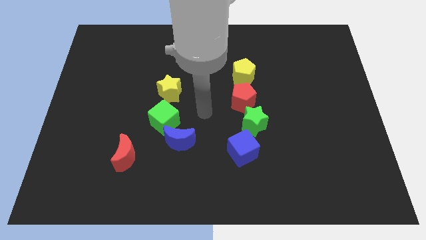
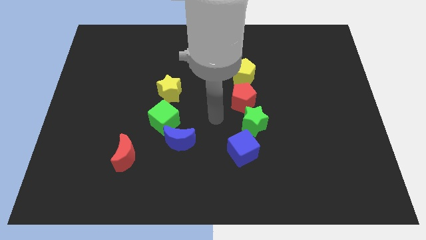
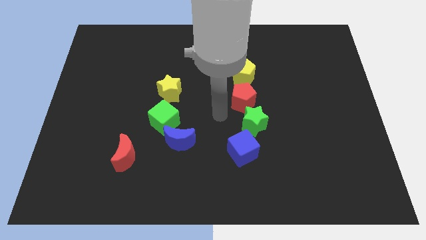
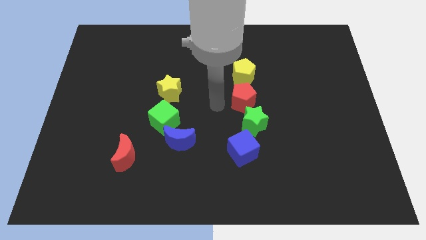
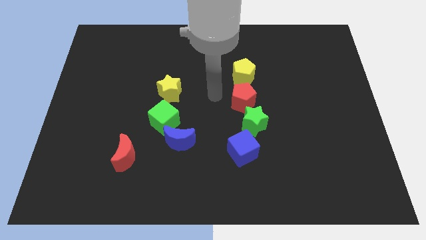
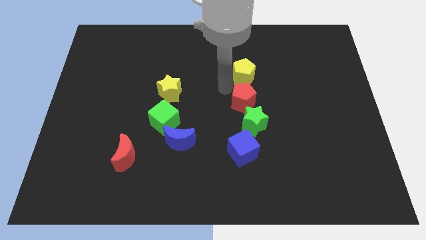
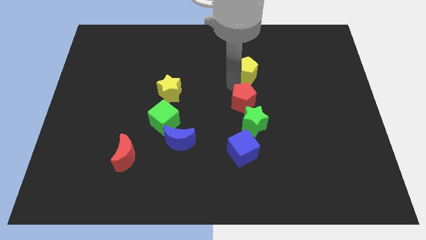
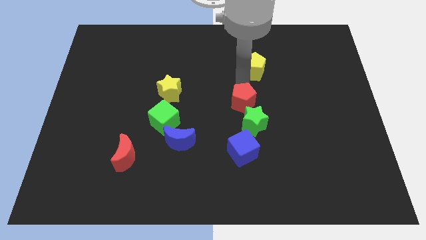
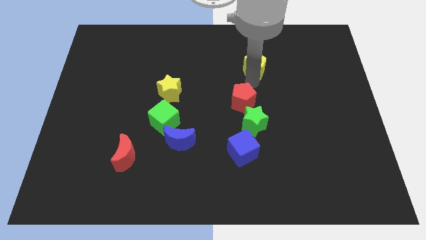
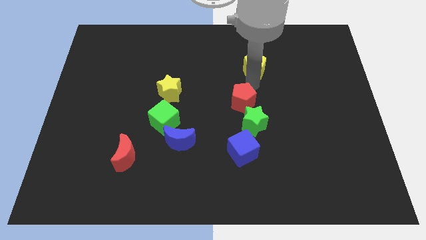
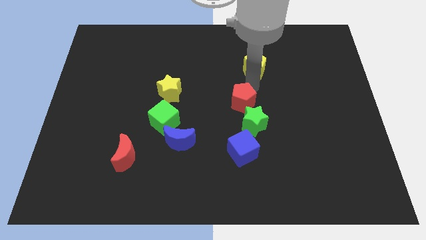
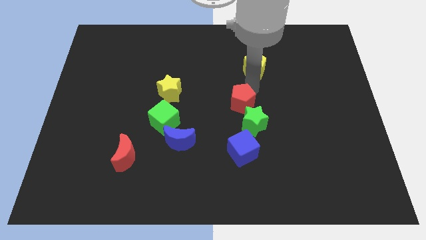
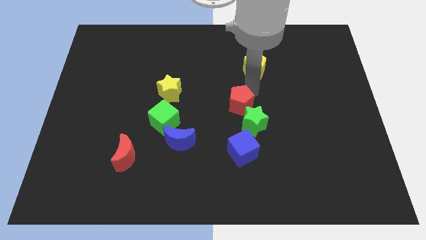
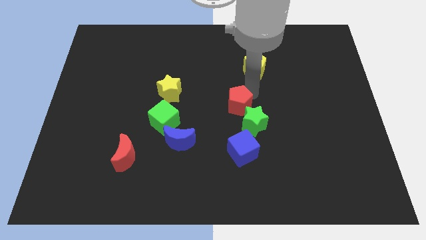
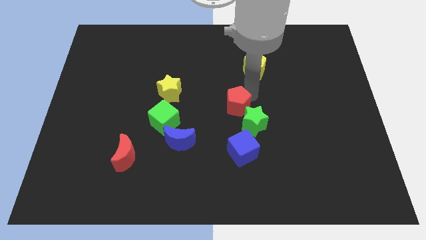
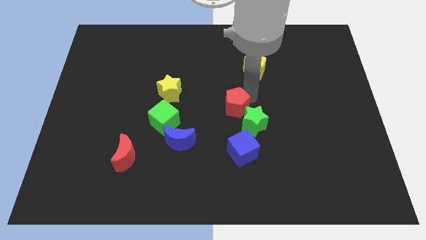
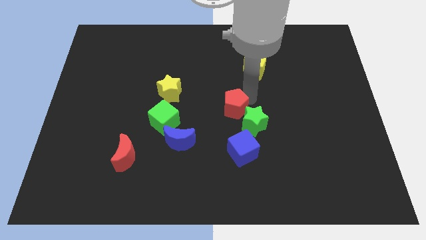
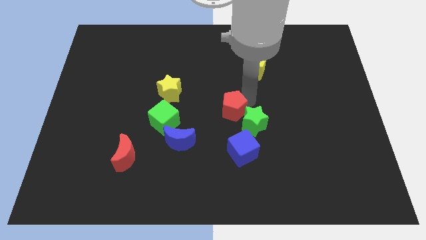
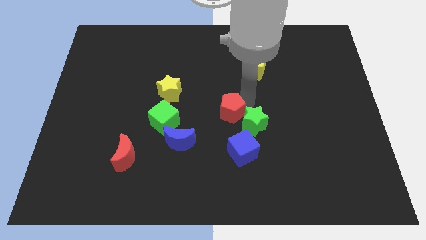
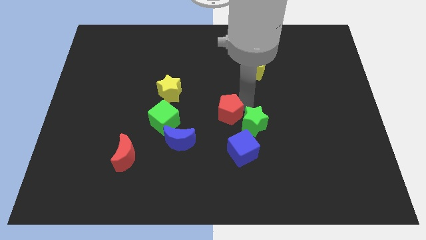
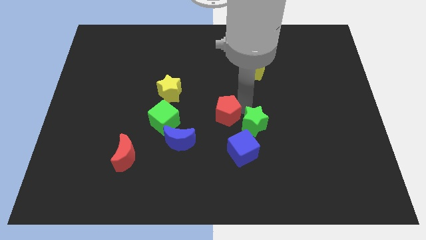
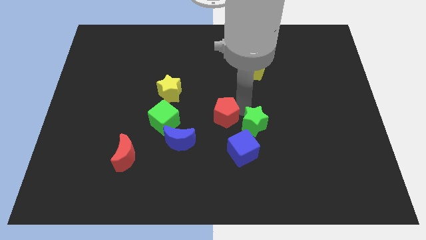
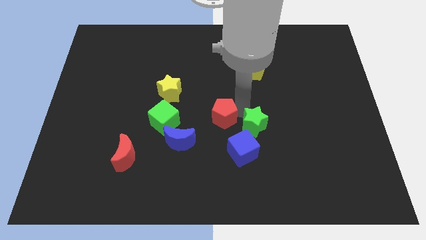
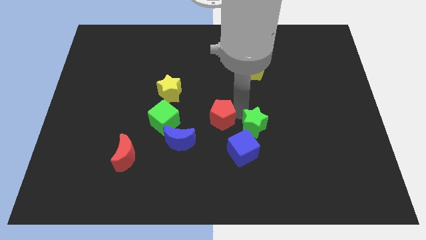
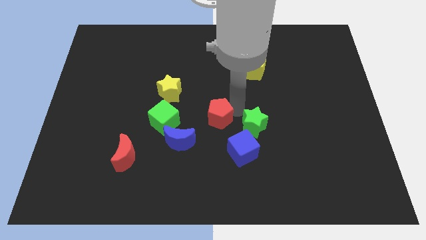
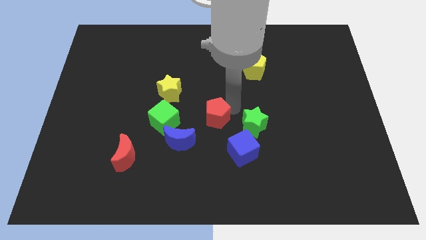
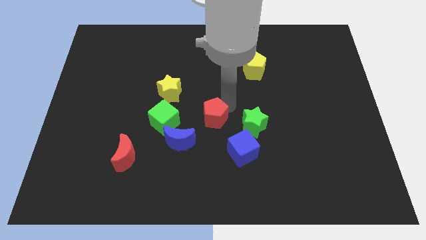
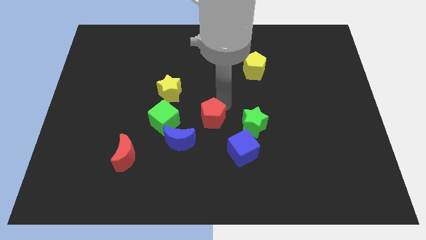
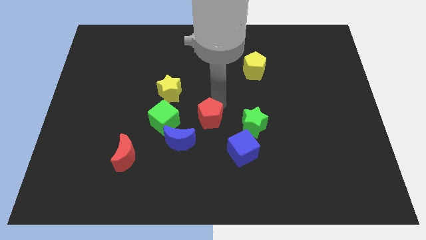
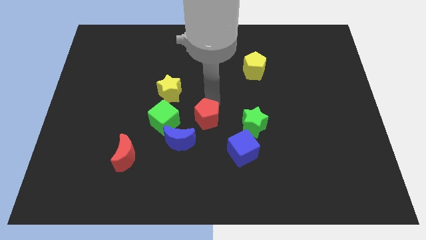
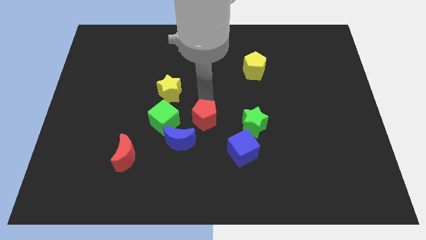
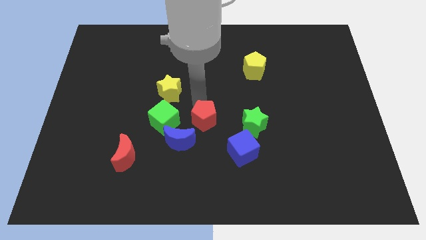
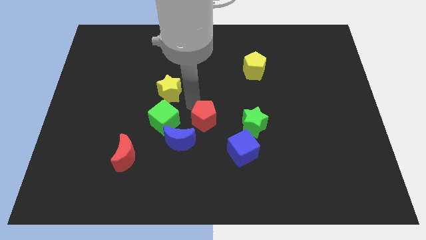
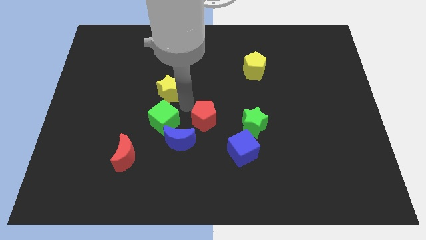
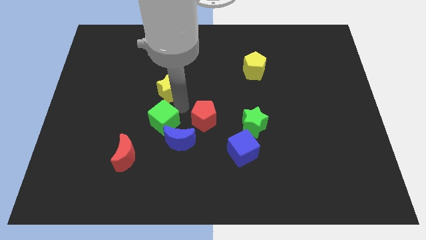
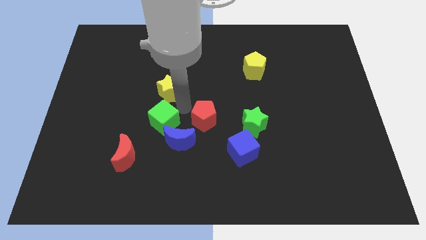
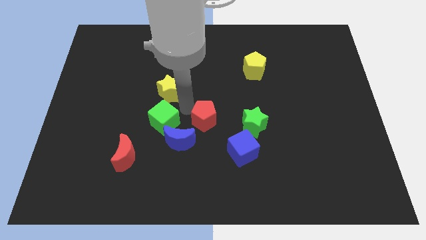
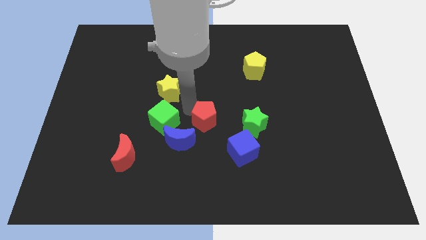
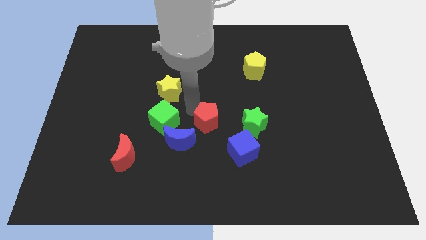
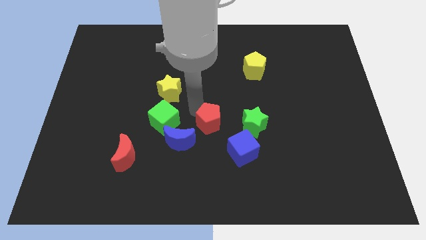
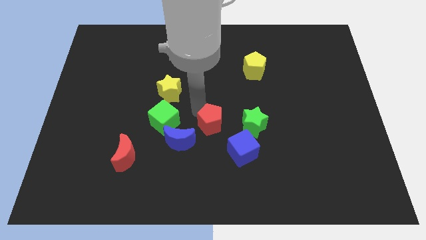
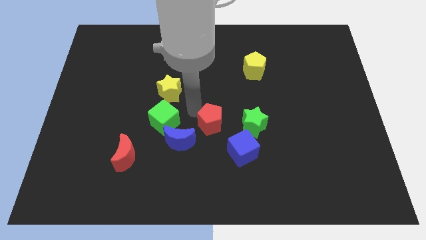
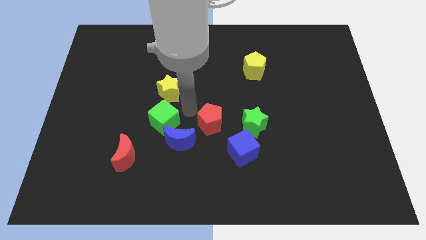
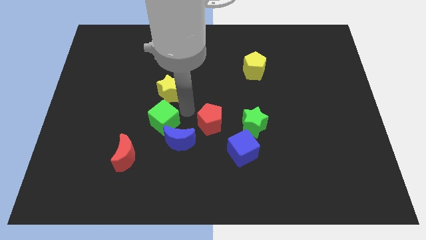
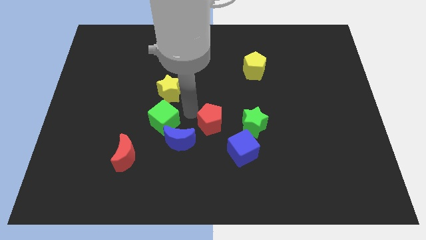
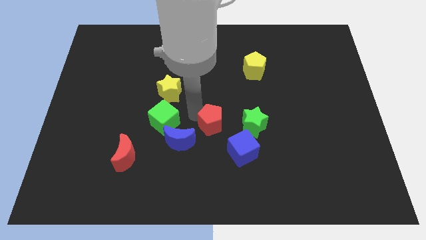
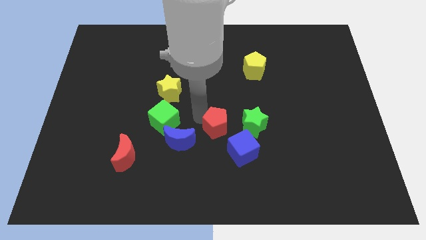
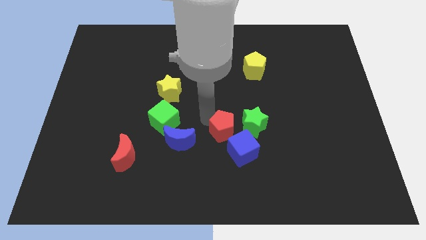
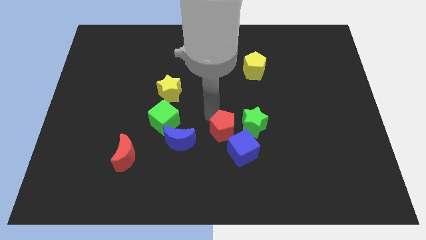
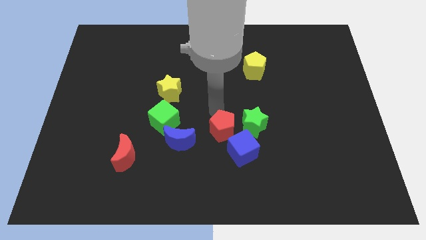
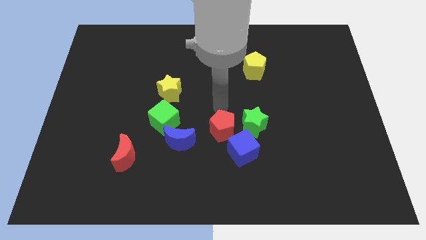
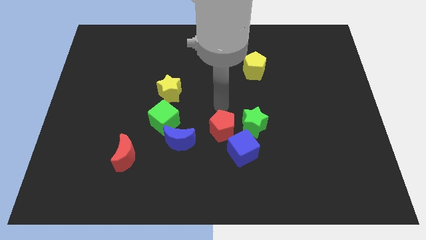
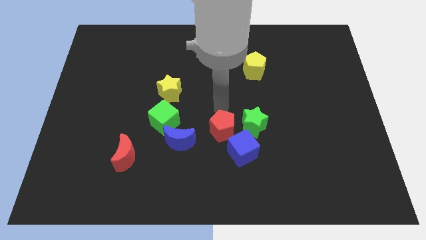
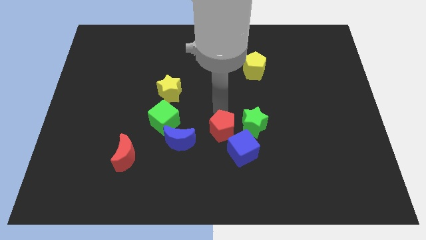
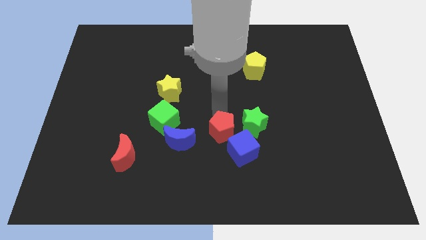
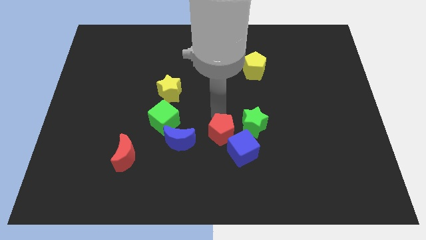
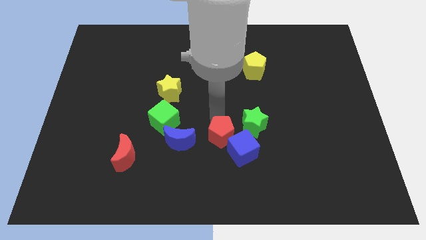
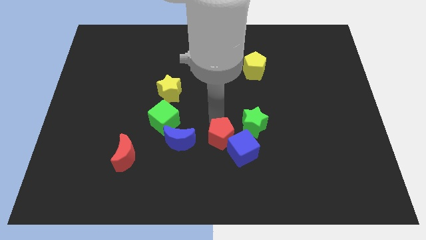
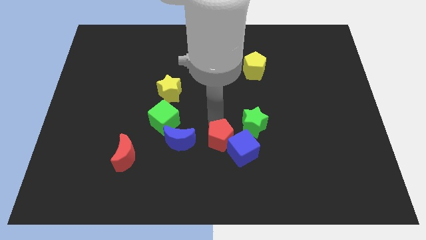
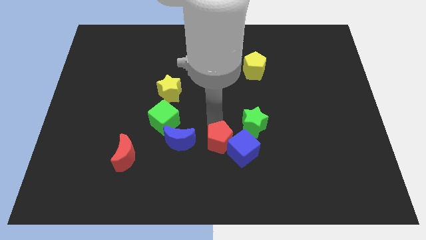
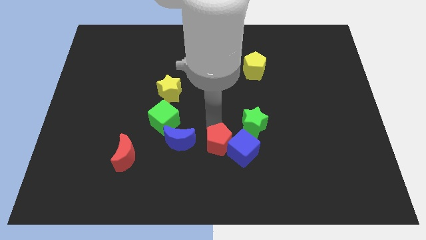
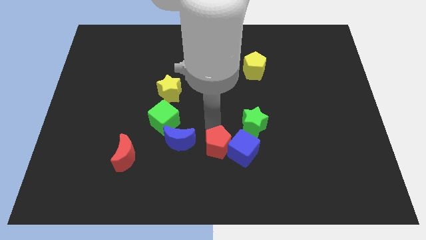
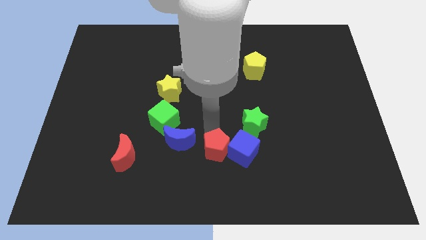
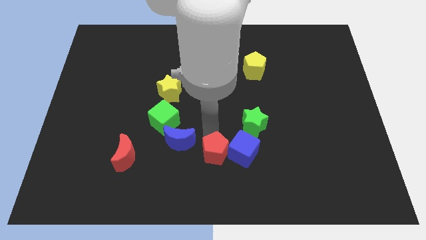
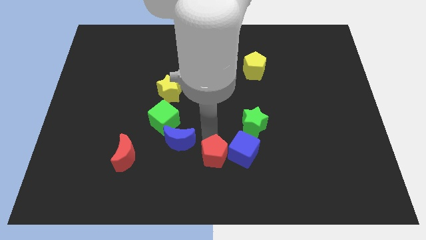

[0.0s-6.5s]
slide the red pentagon to the bottom

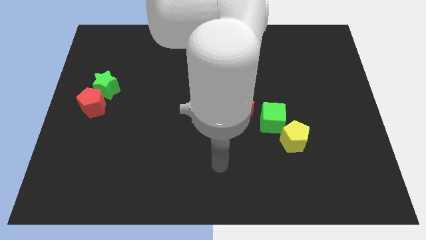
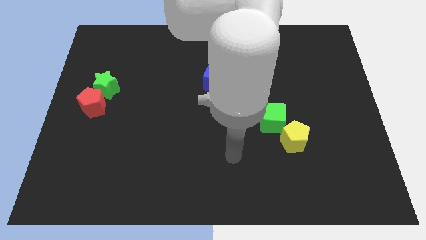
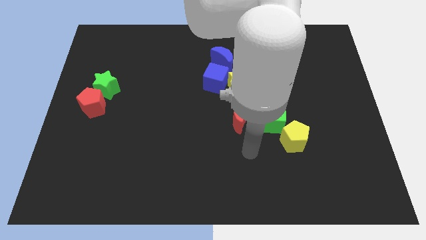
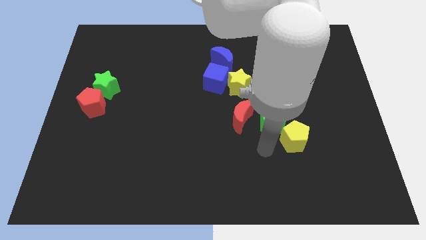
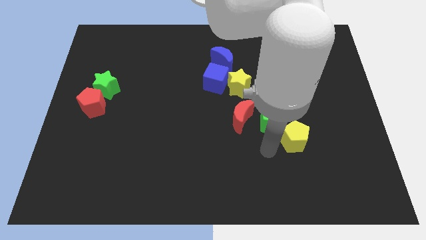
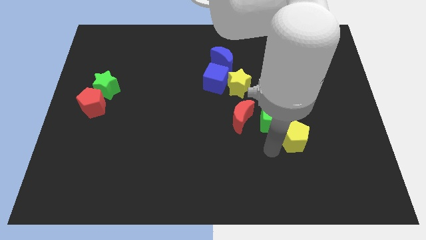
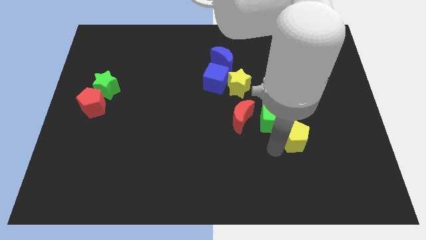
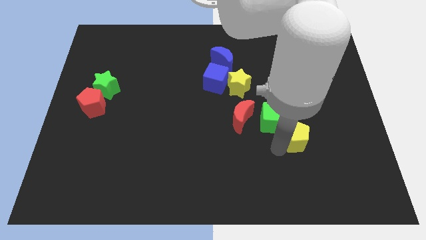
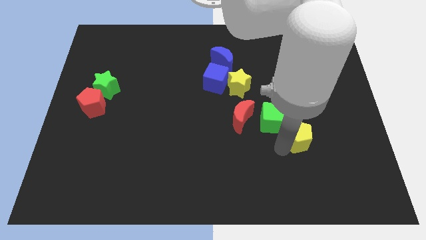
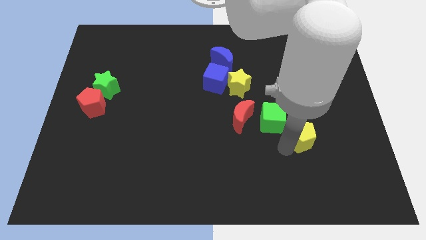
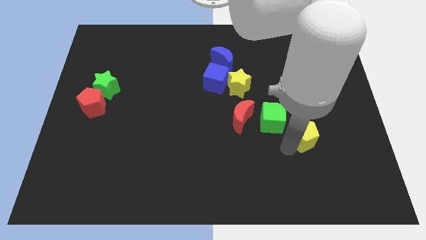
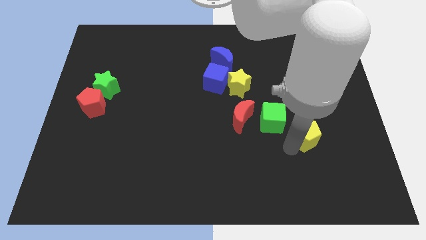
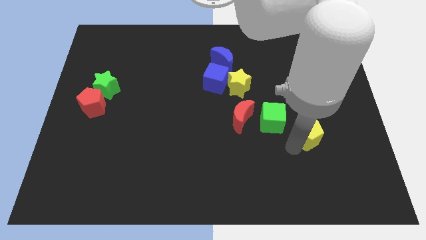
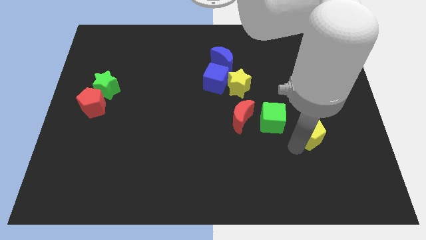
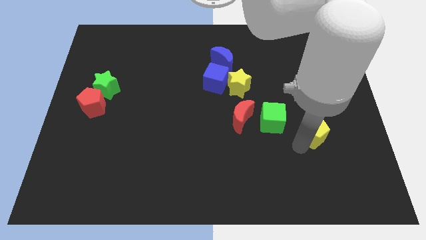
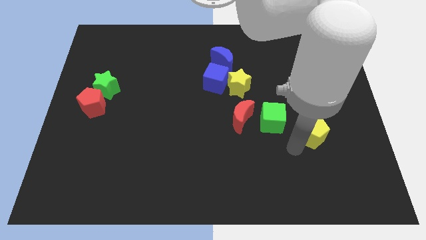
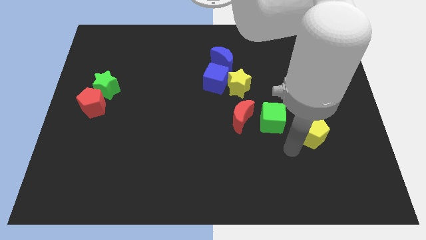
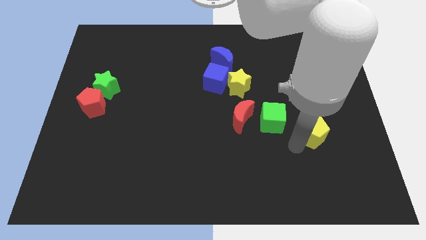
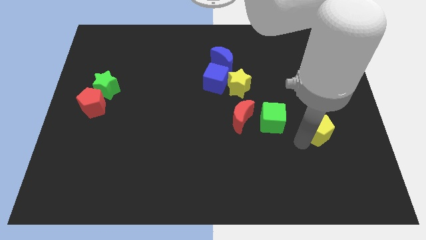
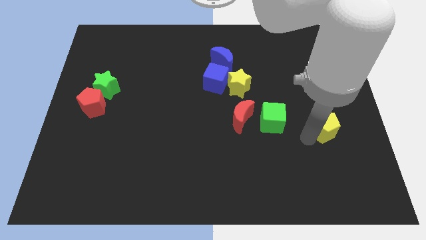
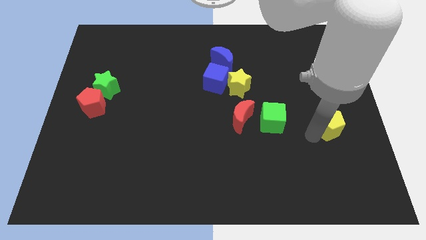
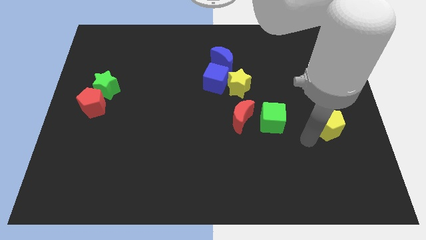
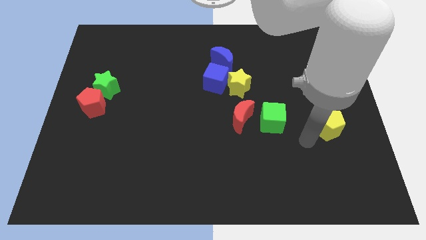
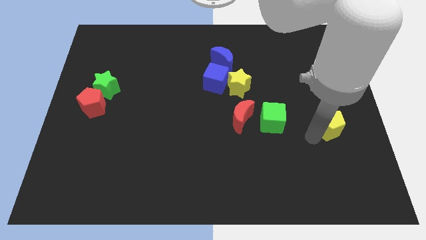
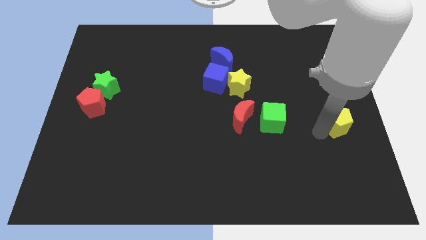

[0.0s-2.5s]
push the yellow pentagon to the center right
